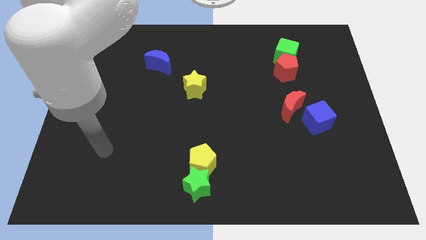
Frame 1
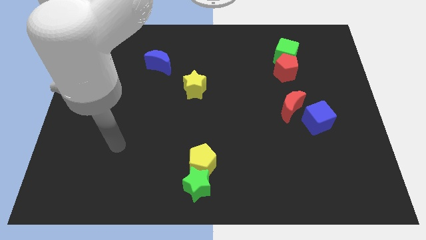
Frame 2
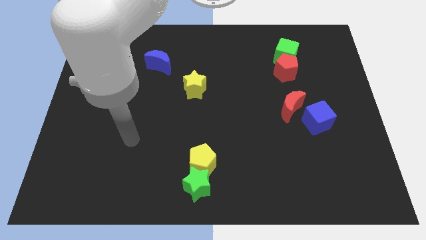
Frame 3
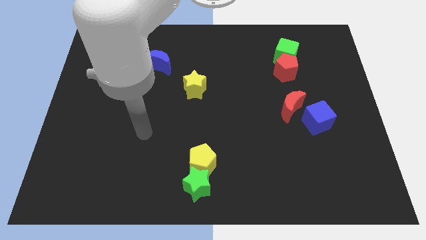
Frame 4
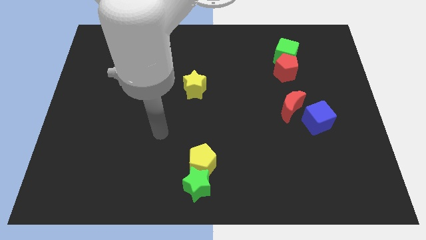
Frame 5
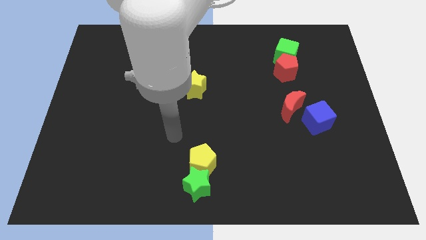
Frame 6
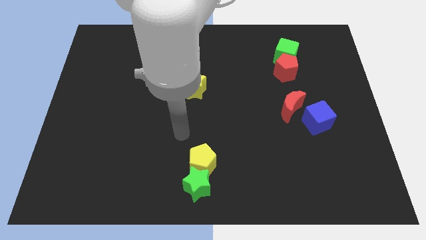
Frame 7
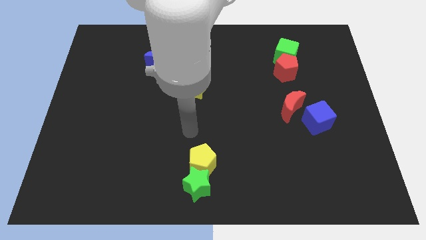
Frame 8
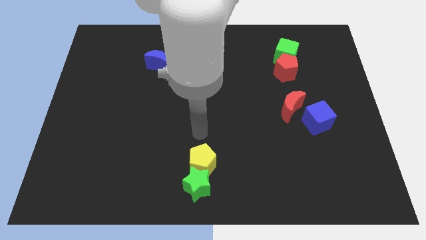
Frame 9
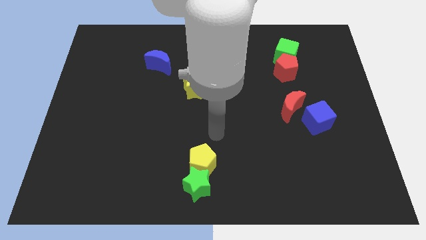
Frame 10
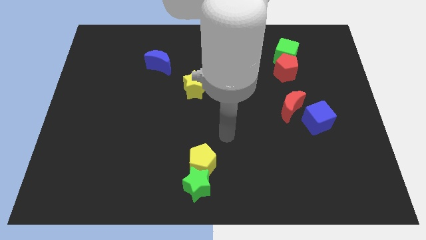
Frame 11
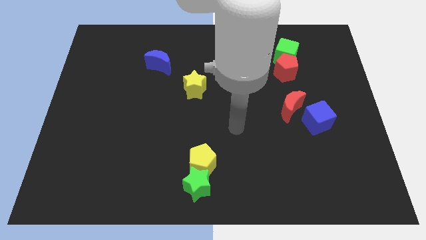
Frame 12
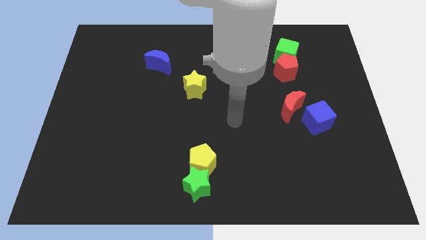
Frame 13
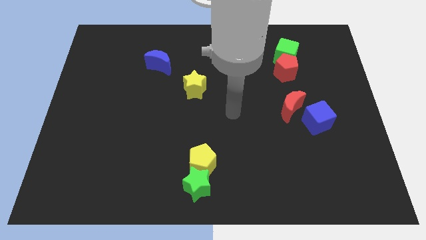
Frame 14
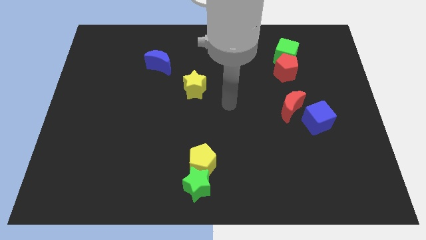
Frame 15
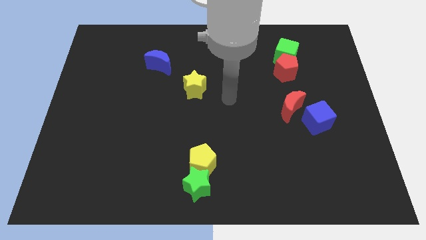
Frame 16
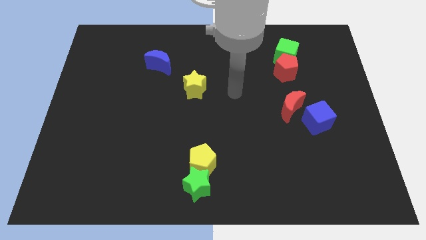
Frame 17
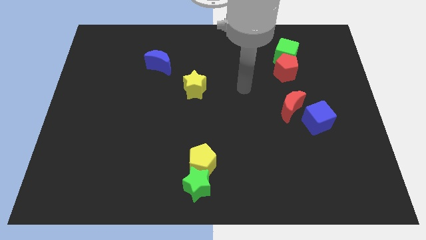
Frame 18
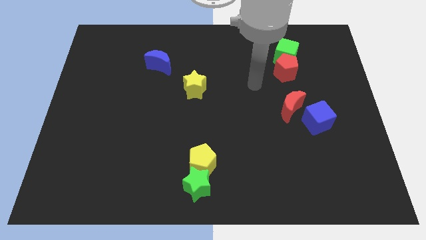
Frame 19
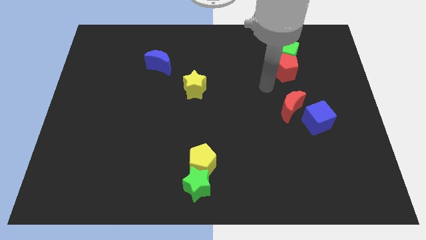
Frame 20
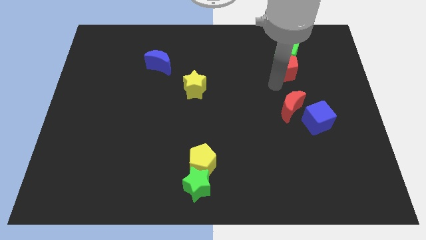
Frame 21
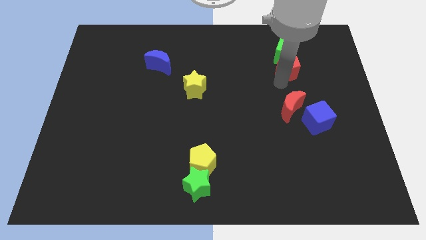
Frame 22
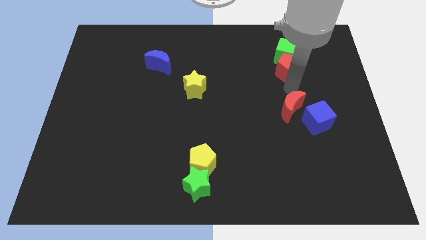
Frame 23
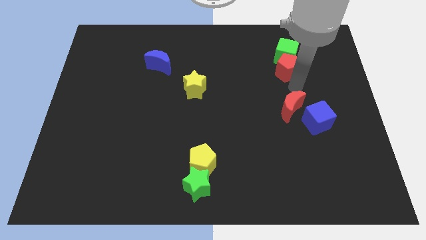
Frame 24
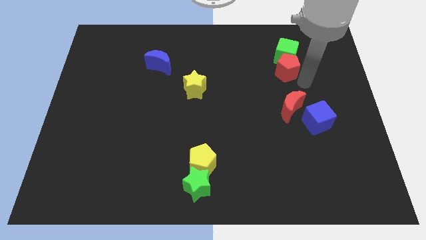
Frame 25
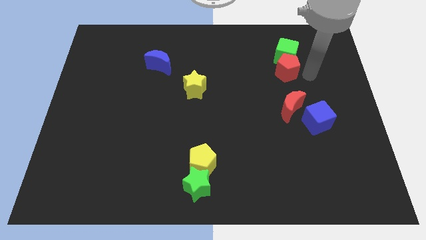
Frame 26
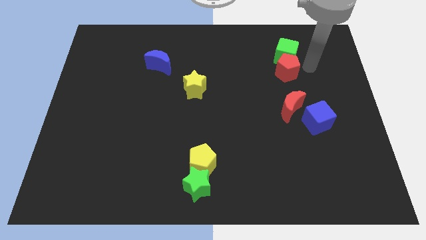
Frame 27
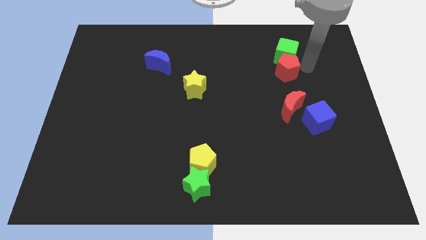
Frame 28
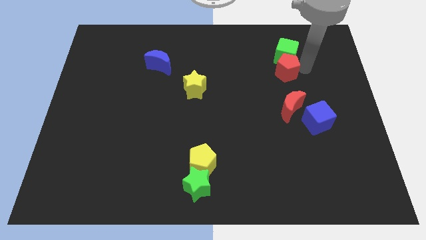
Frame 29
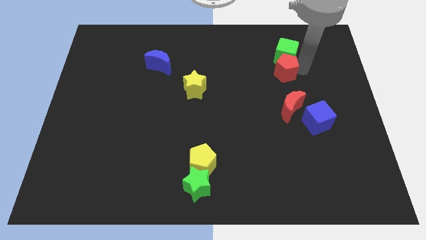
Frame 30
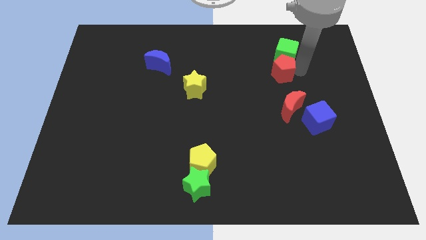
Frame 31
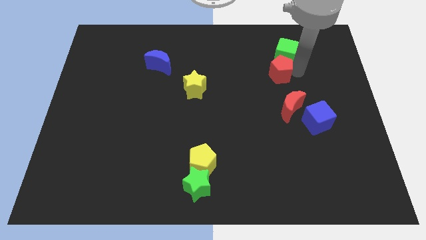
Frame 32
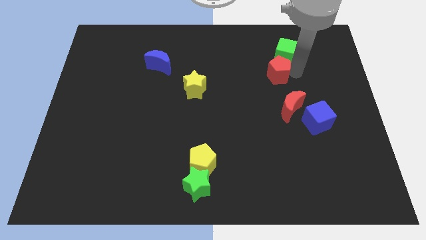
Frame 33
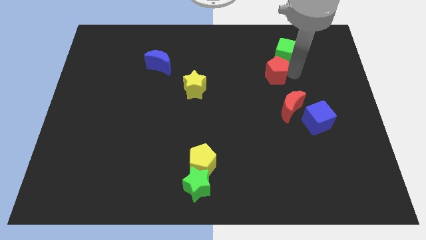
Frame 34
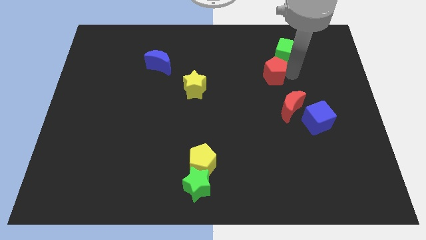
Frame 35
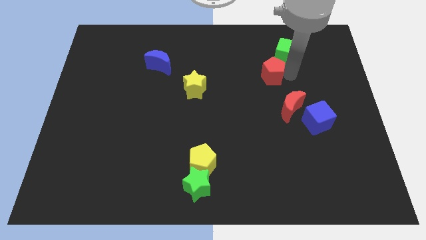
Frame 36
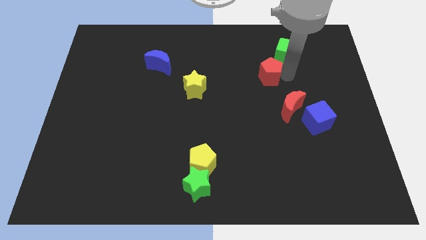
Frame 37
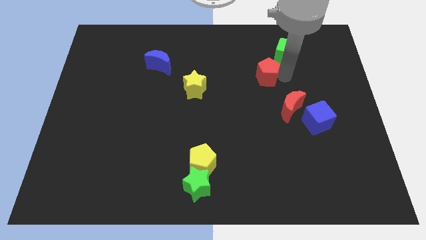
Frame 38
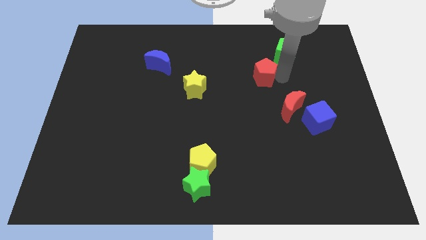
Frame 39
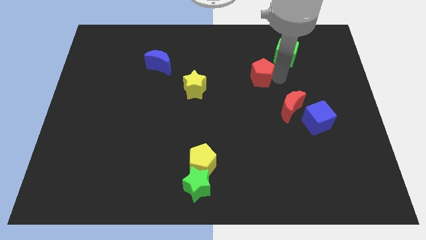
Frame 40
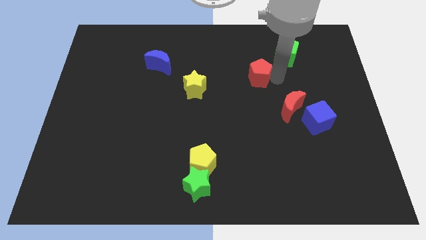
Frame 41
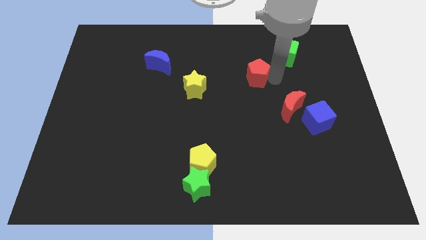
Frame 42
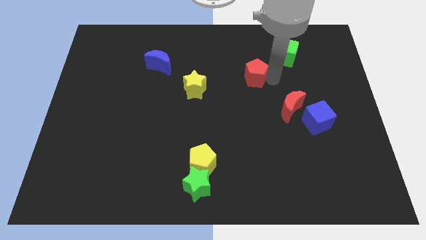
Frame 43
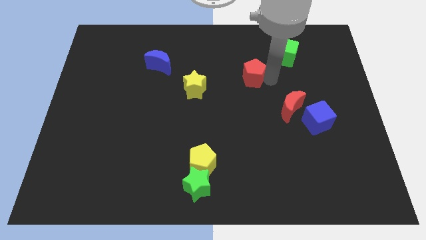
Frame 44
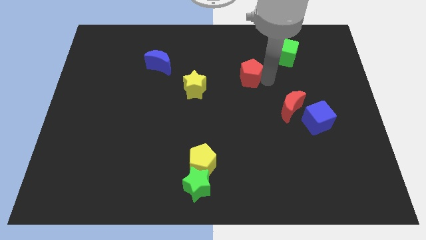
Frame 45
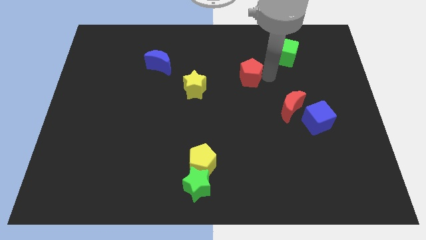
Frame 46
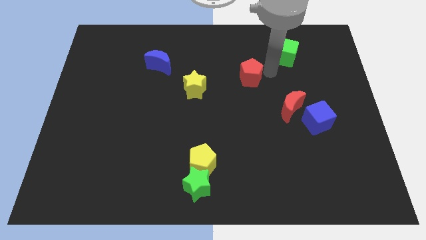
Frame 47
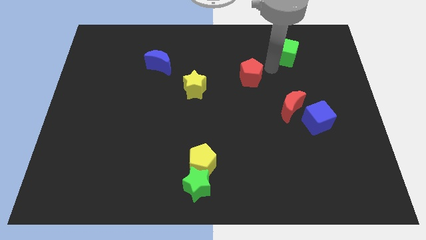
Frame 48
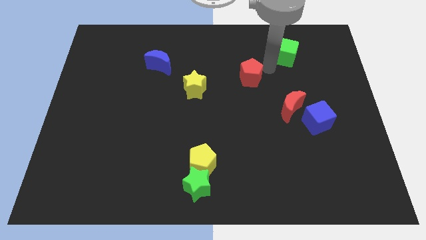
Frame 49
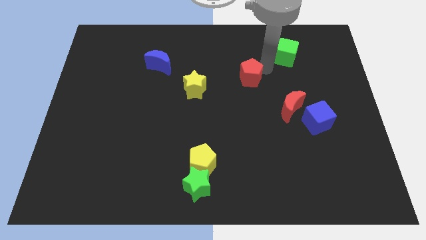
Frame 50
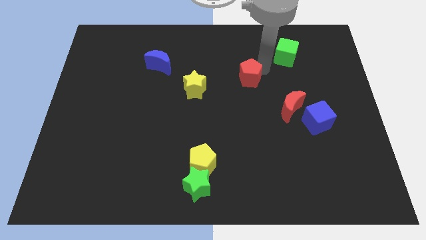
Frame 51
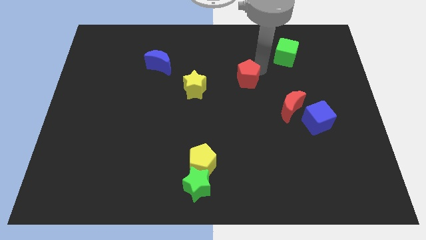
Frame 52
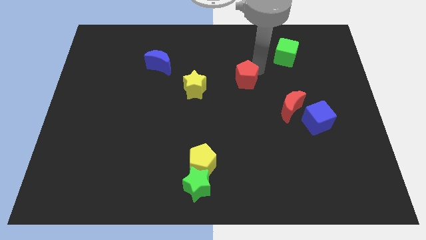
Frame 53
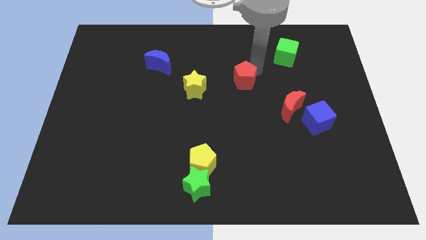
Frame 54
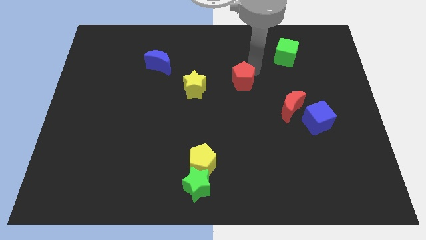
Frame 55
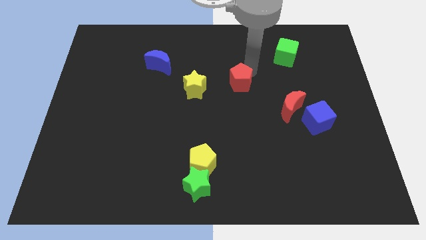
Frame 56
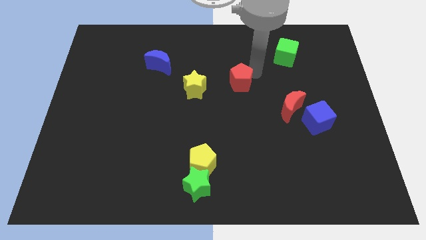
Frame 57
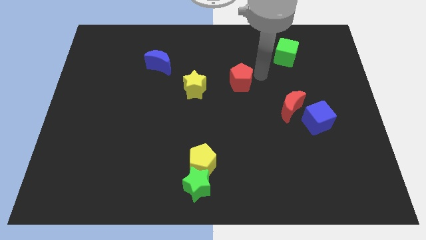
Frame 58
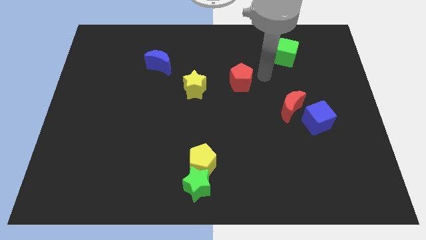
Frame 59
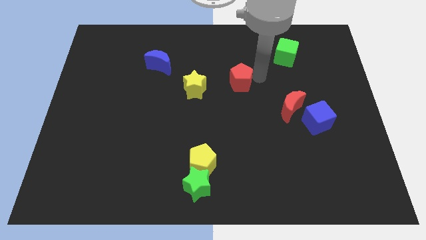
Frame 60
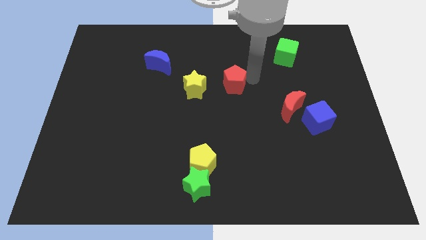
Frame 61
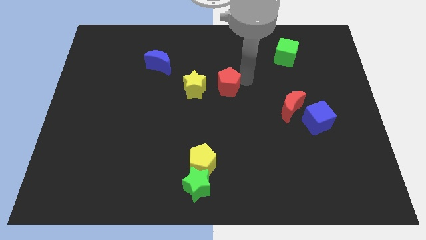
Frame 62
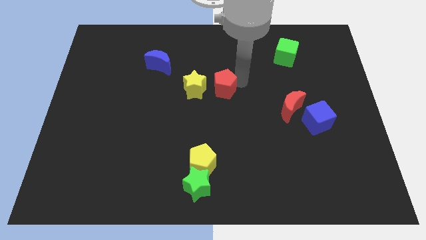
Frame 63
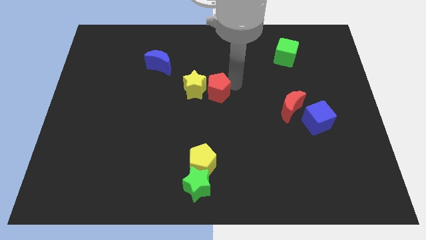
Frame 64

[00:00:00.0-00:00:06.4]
slide the red pentagon next to the yellow star

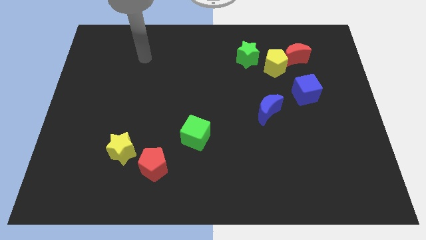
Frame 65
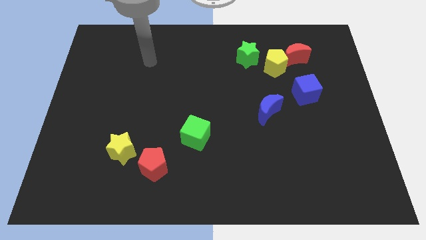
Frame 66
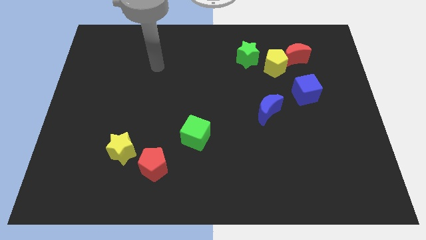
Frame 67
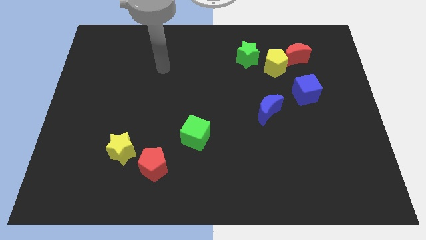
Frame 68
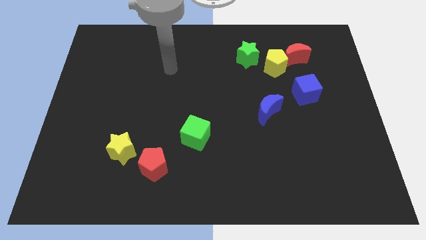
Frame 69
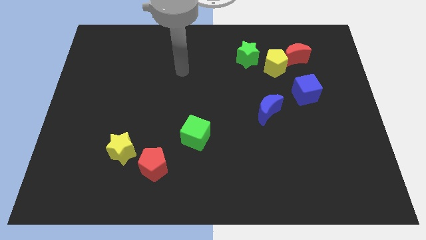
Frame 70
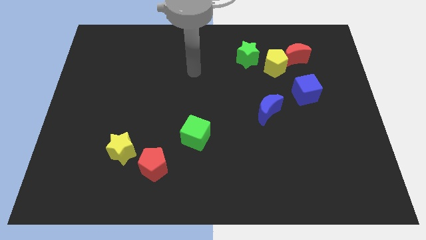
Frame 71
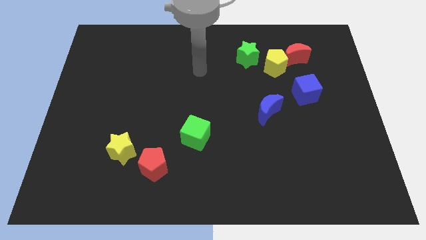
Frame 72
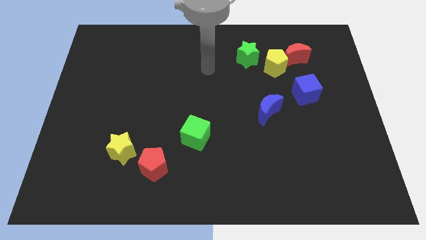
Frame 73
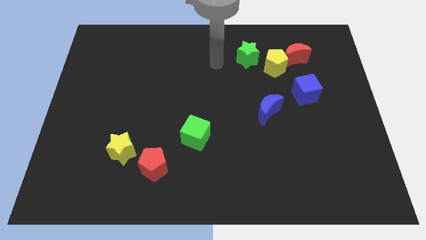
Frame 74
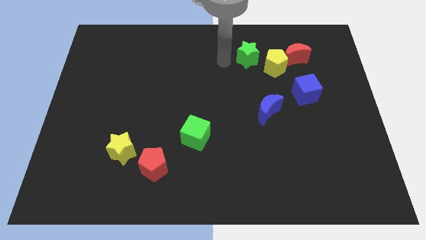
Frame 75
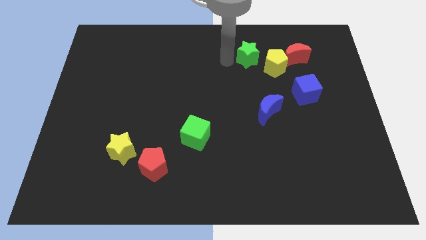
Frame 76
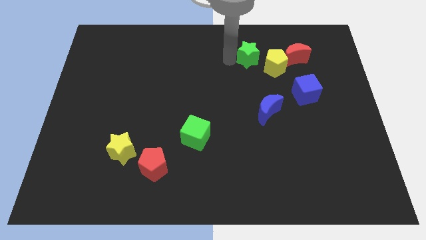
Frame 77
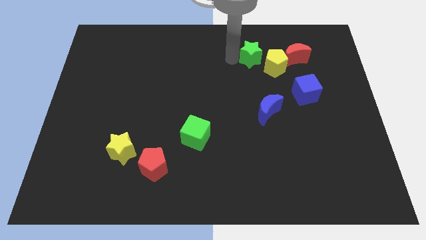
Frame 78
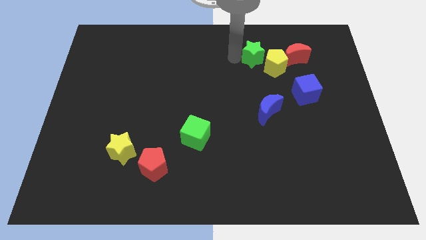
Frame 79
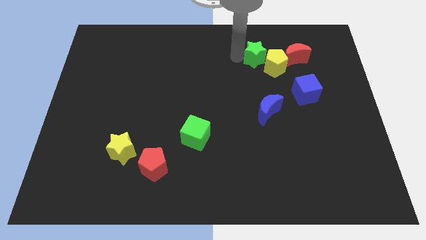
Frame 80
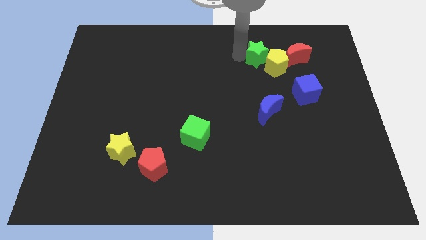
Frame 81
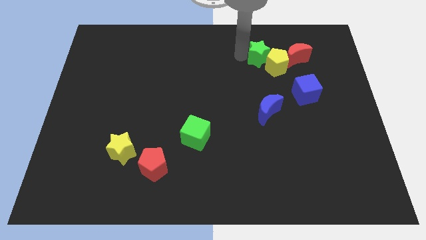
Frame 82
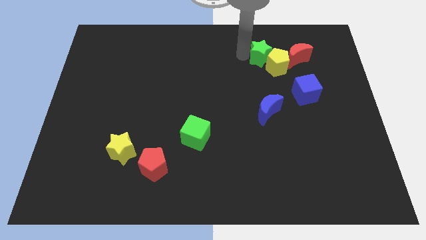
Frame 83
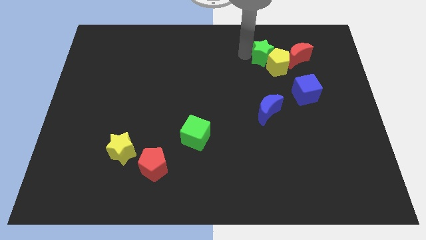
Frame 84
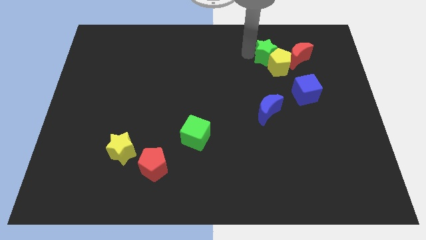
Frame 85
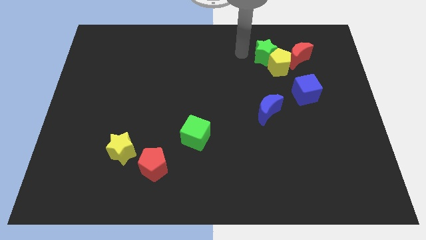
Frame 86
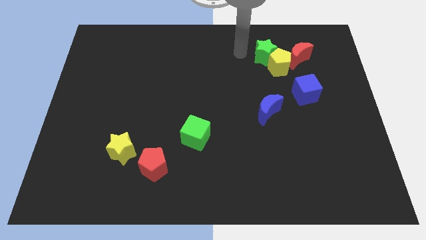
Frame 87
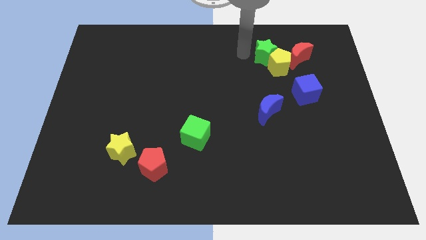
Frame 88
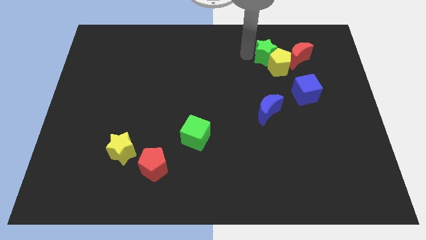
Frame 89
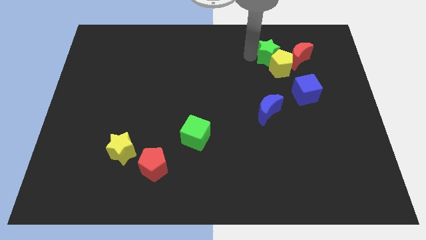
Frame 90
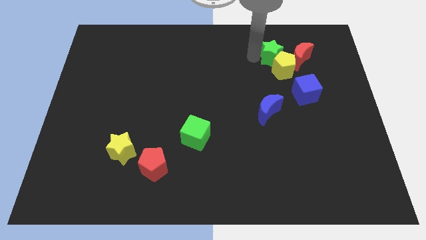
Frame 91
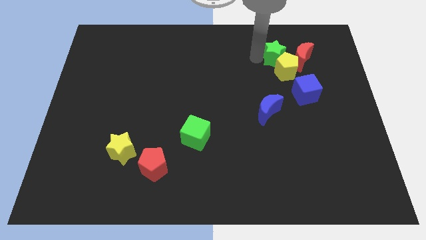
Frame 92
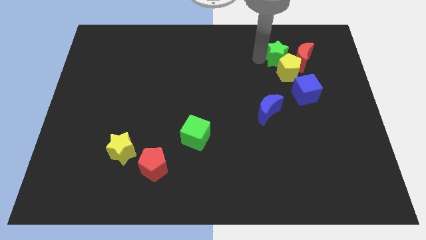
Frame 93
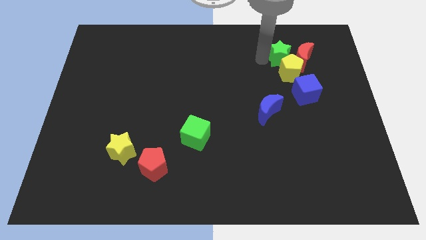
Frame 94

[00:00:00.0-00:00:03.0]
put the green star to the red moon
